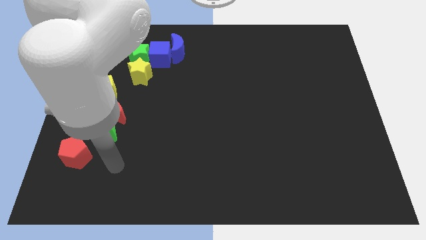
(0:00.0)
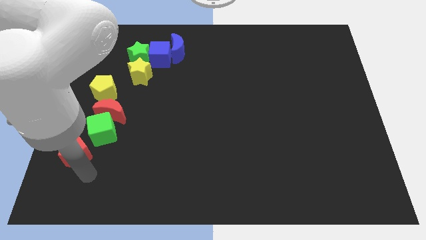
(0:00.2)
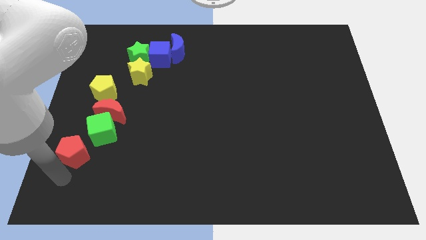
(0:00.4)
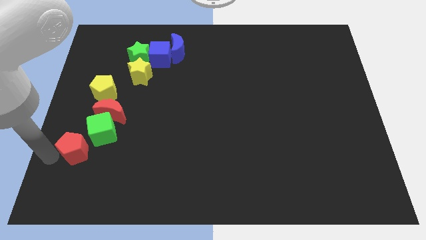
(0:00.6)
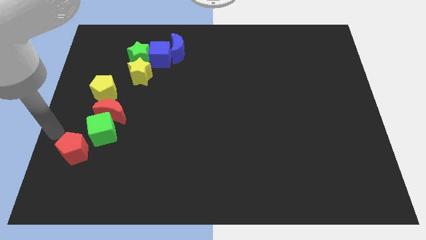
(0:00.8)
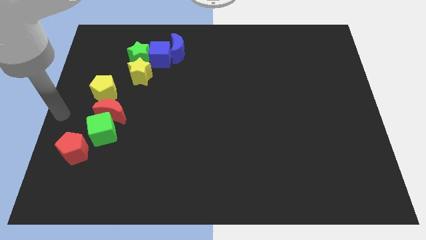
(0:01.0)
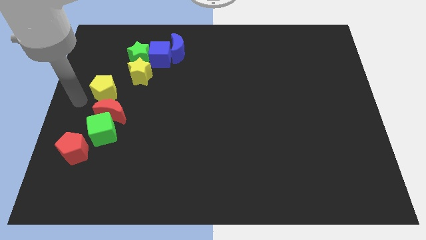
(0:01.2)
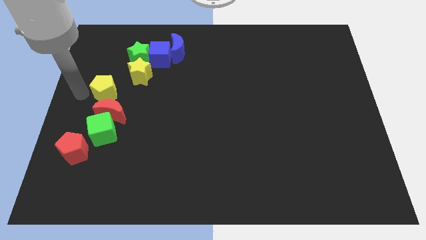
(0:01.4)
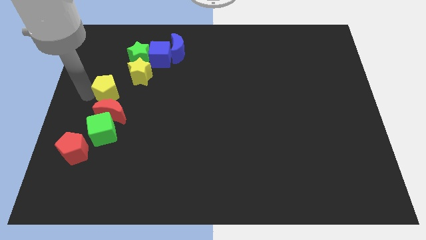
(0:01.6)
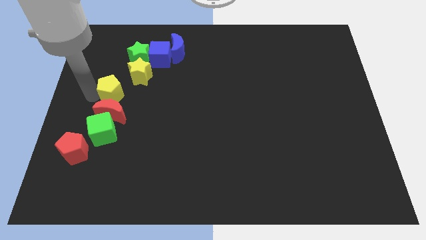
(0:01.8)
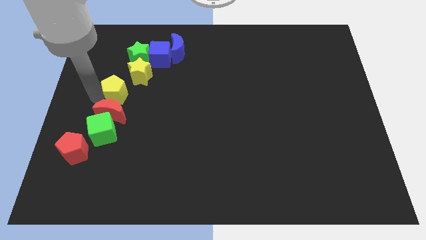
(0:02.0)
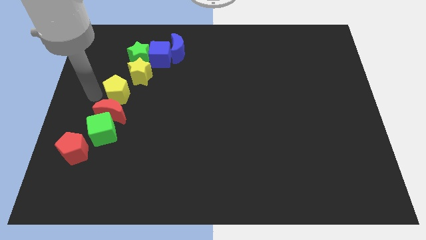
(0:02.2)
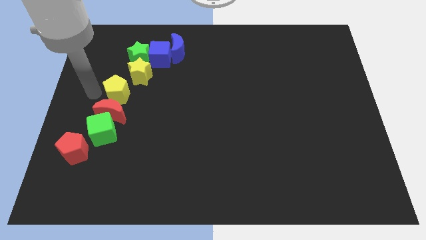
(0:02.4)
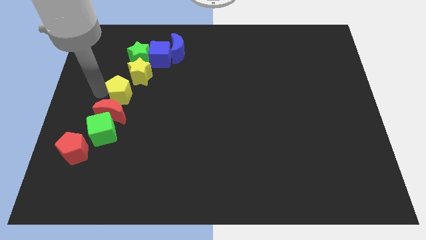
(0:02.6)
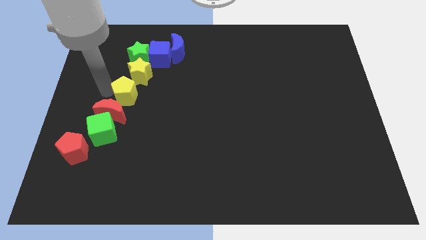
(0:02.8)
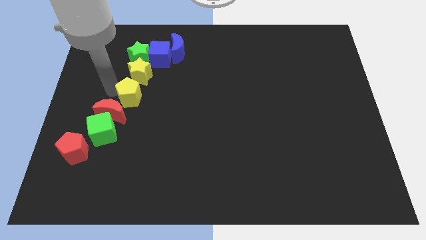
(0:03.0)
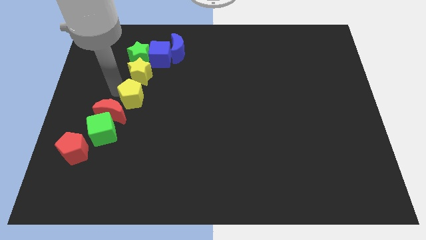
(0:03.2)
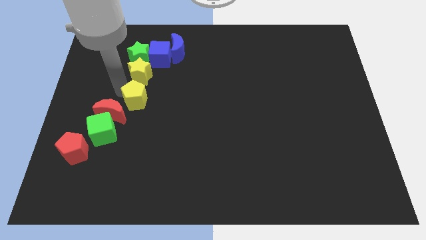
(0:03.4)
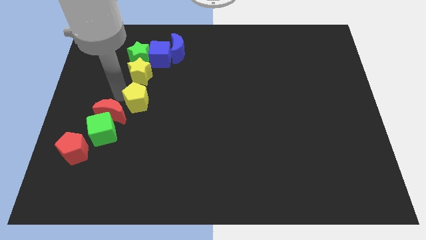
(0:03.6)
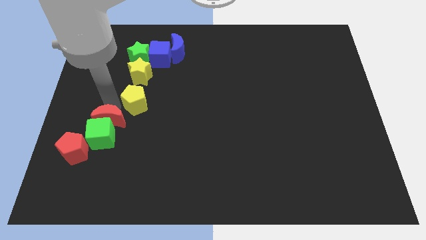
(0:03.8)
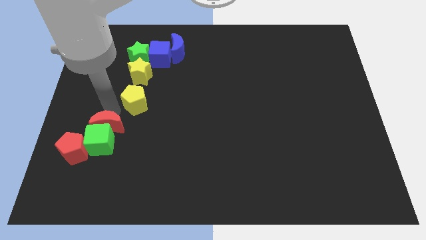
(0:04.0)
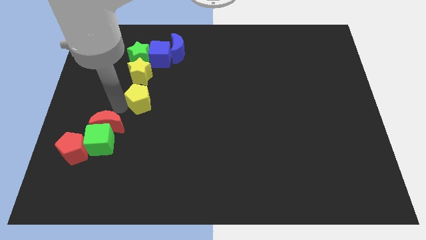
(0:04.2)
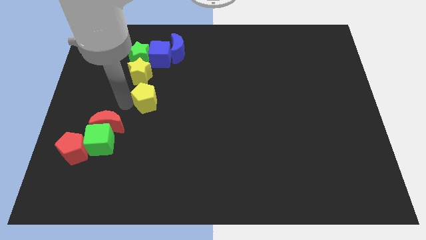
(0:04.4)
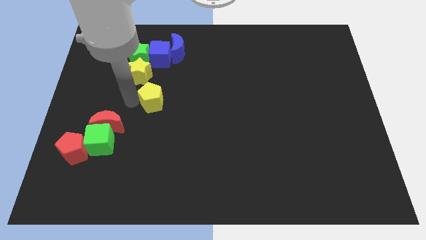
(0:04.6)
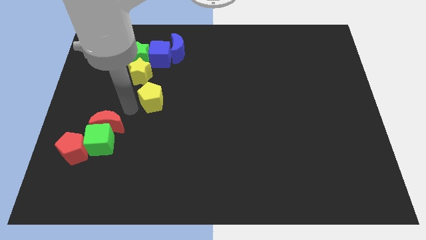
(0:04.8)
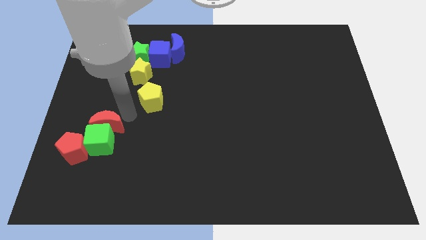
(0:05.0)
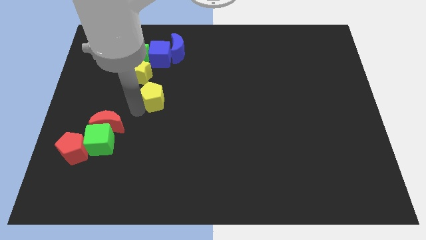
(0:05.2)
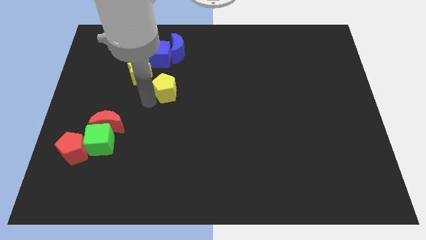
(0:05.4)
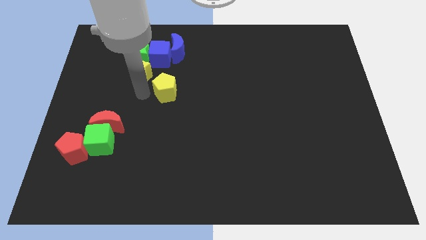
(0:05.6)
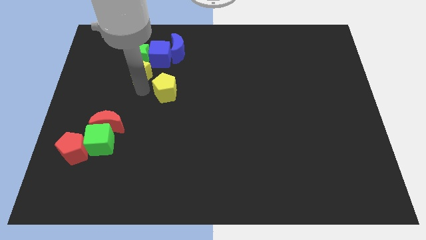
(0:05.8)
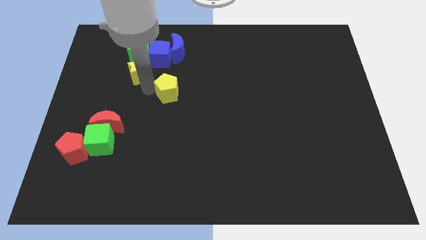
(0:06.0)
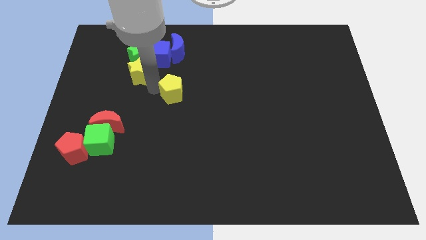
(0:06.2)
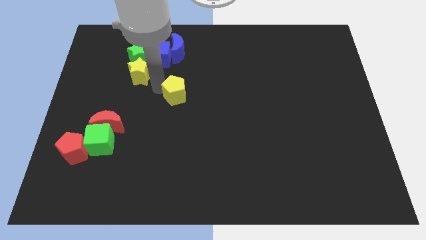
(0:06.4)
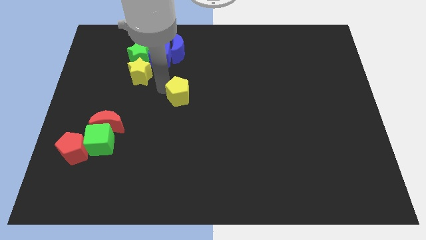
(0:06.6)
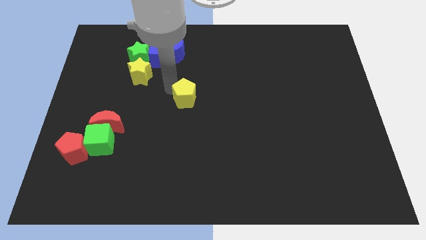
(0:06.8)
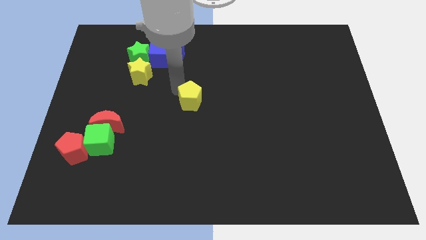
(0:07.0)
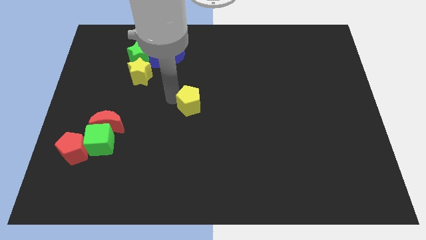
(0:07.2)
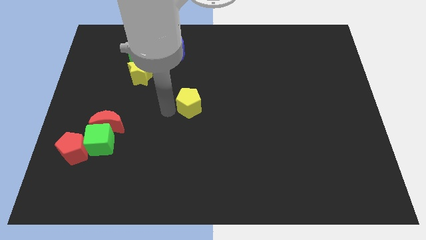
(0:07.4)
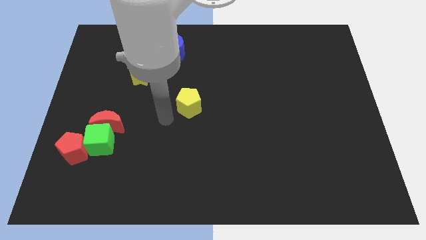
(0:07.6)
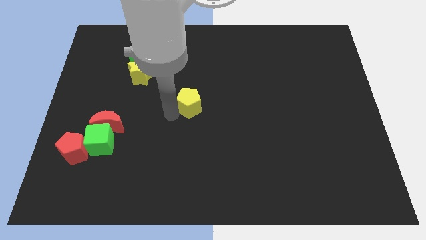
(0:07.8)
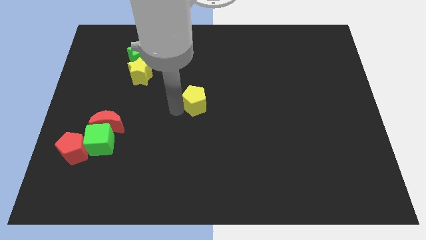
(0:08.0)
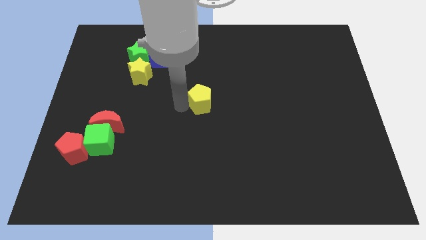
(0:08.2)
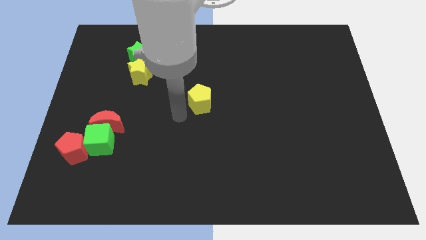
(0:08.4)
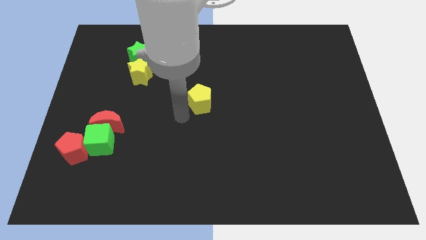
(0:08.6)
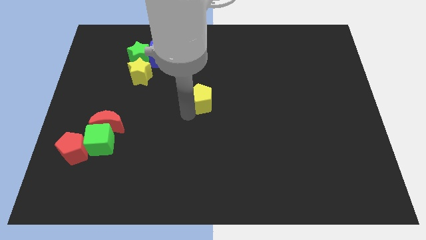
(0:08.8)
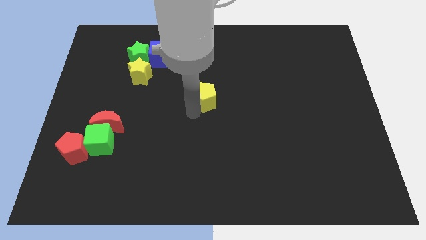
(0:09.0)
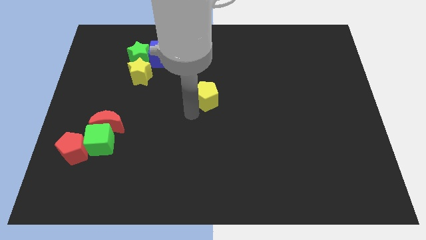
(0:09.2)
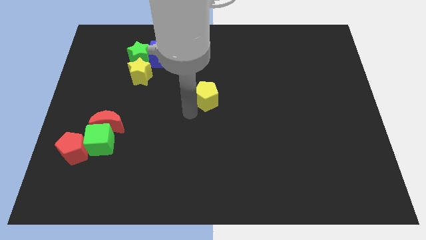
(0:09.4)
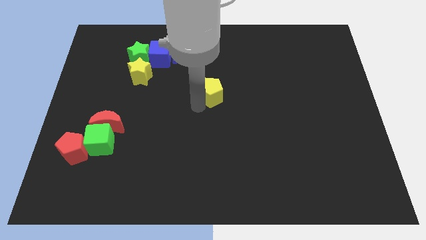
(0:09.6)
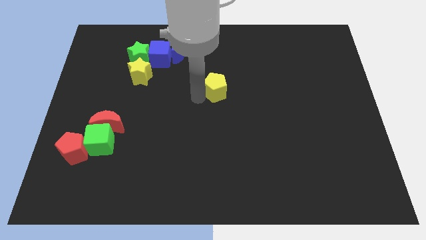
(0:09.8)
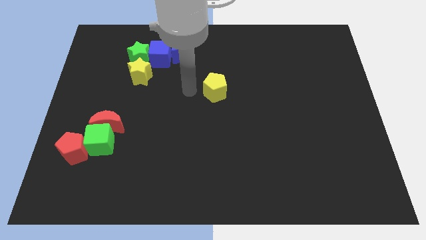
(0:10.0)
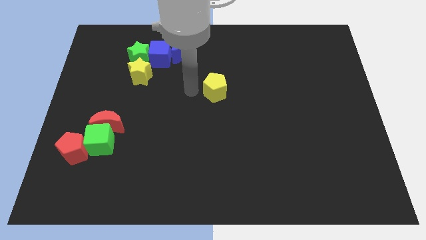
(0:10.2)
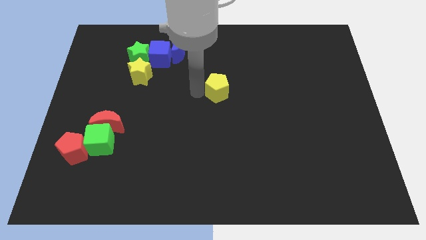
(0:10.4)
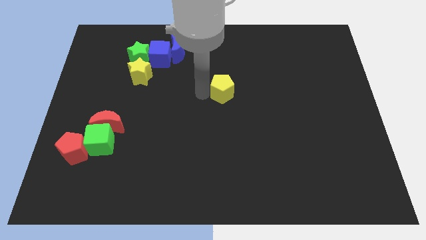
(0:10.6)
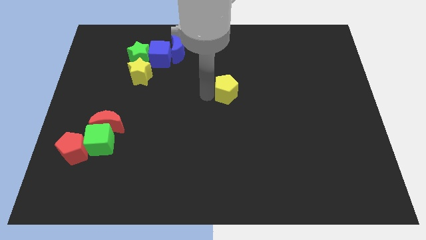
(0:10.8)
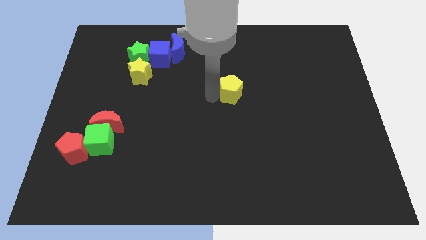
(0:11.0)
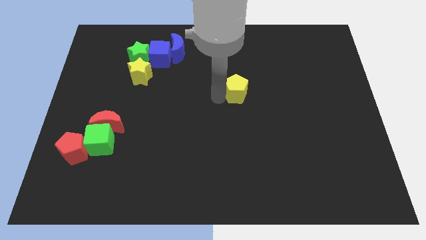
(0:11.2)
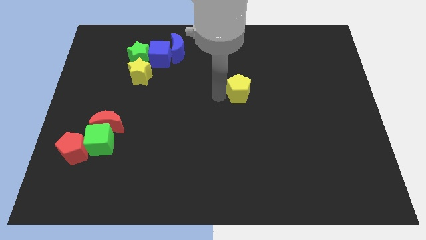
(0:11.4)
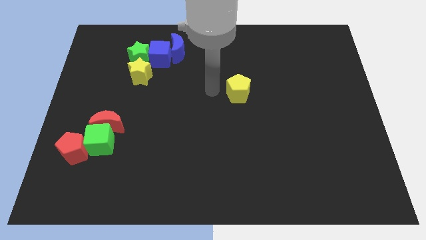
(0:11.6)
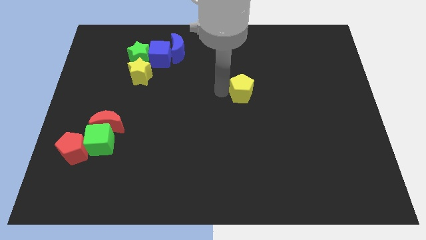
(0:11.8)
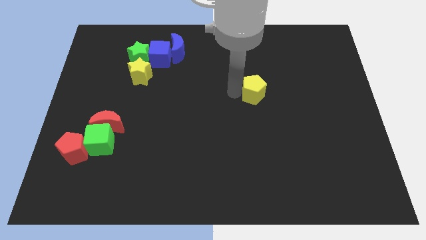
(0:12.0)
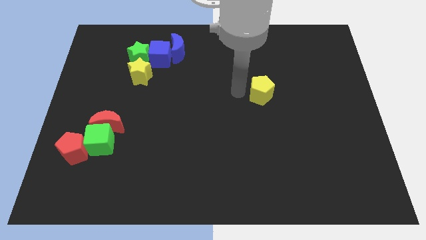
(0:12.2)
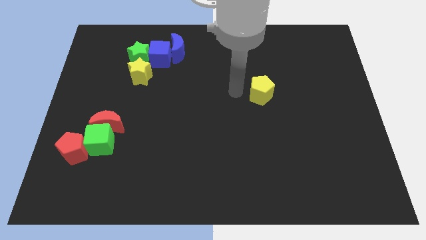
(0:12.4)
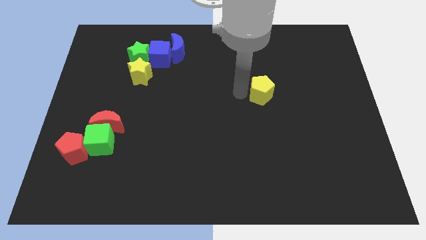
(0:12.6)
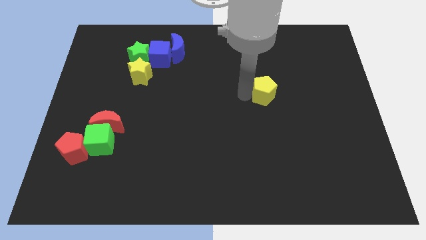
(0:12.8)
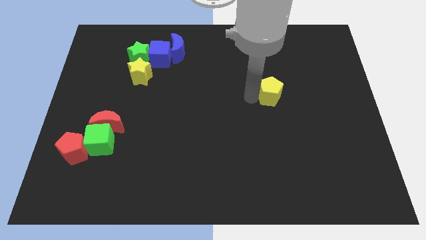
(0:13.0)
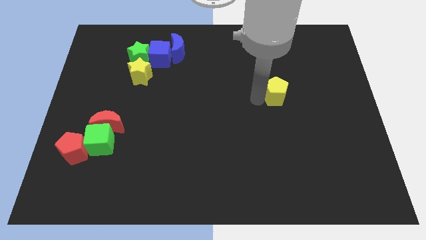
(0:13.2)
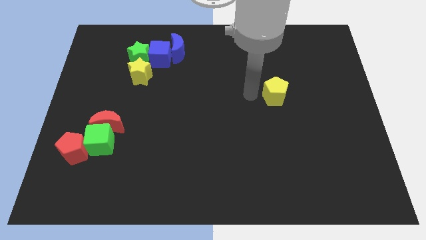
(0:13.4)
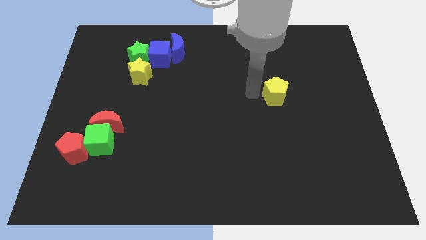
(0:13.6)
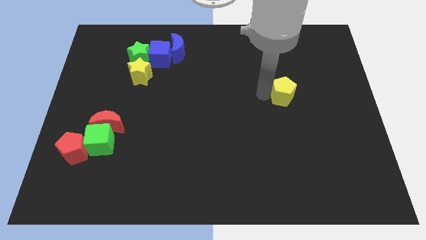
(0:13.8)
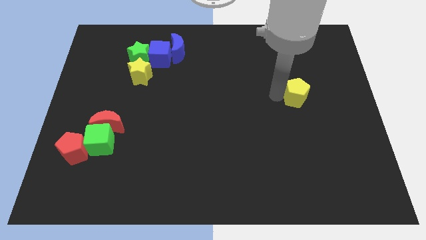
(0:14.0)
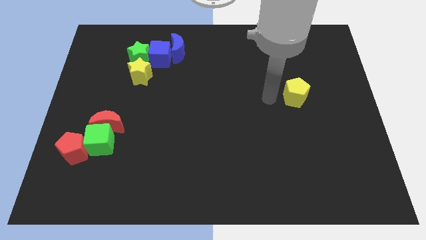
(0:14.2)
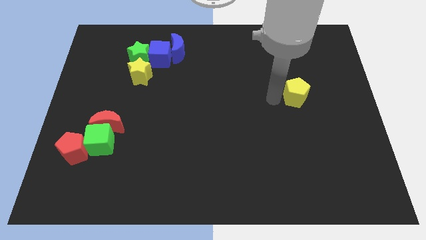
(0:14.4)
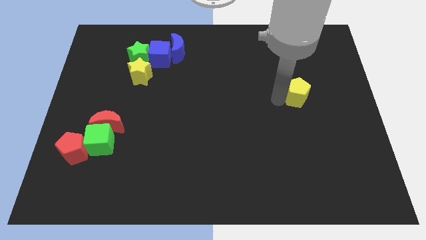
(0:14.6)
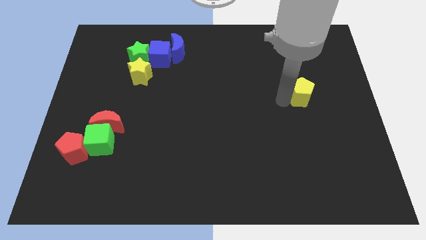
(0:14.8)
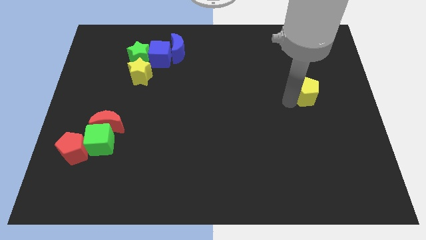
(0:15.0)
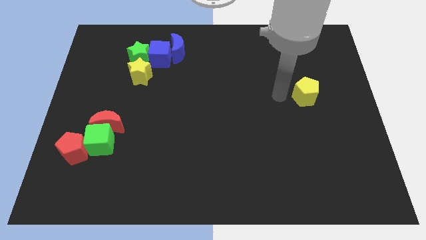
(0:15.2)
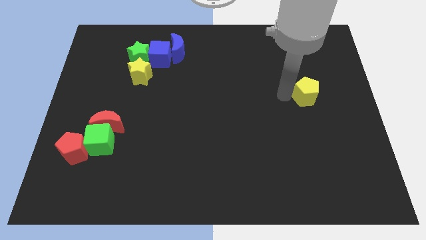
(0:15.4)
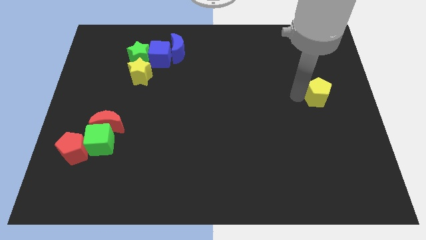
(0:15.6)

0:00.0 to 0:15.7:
put the yellow pentagon to the center right
